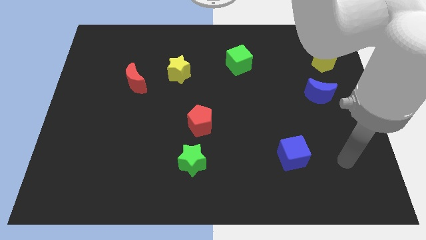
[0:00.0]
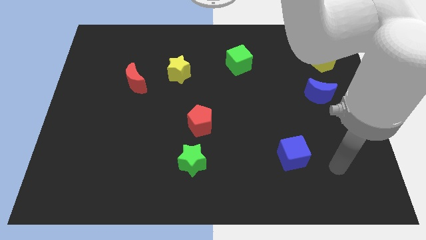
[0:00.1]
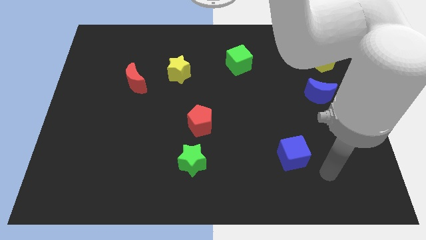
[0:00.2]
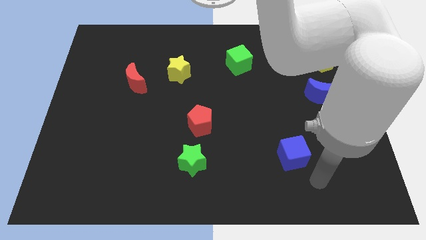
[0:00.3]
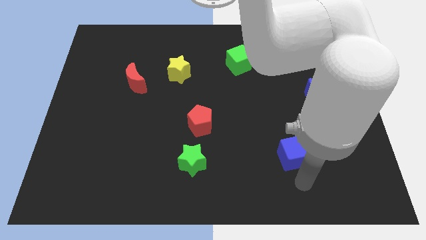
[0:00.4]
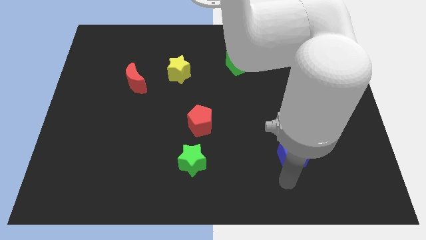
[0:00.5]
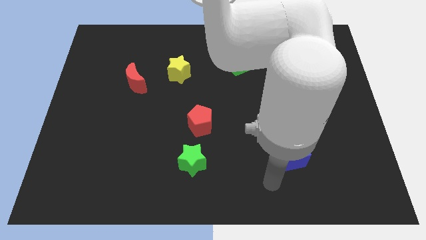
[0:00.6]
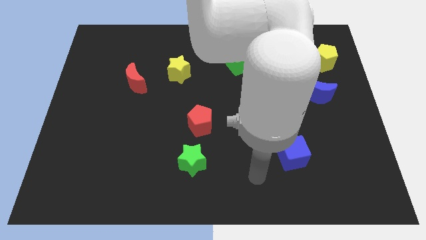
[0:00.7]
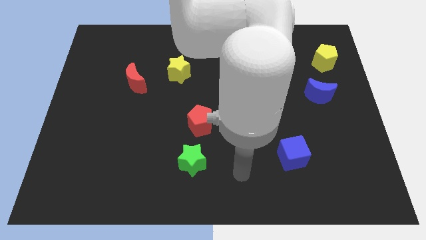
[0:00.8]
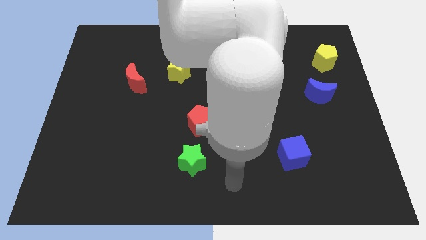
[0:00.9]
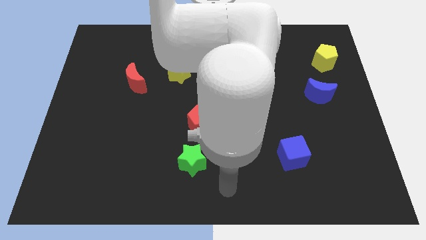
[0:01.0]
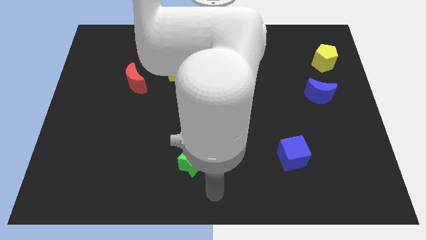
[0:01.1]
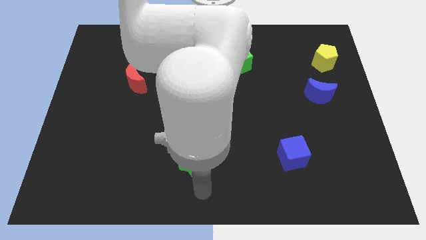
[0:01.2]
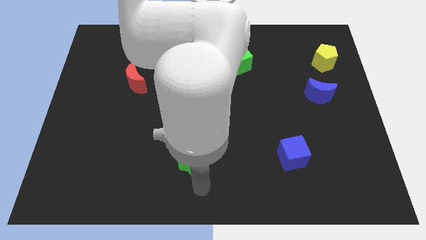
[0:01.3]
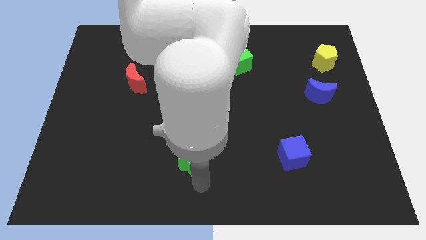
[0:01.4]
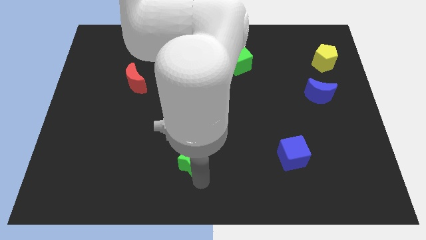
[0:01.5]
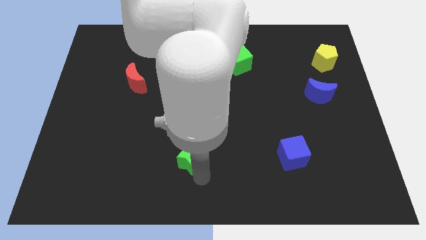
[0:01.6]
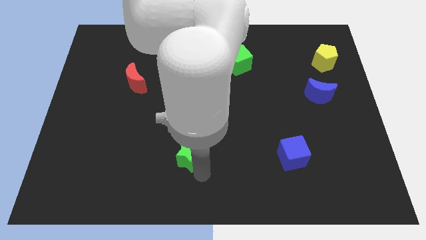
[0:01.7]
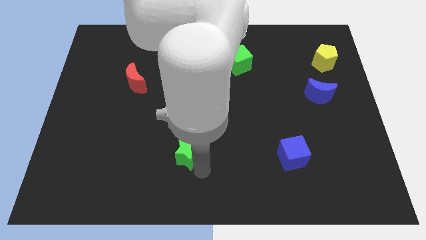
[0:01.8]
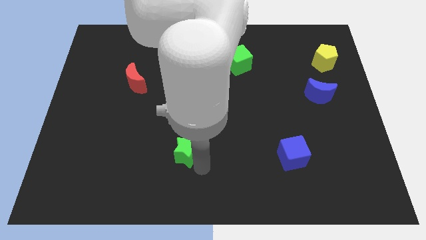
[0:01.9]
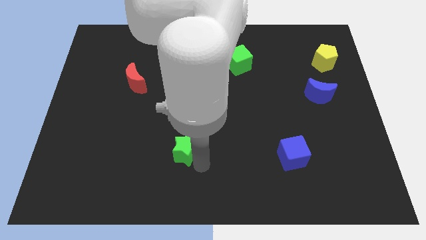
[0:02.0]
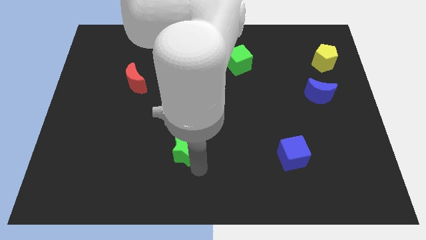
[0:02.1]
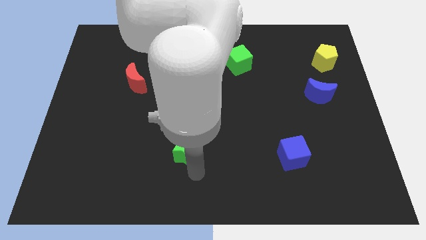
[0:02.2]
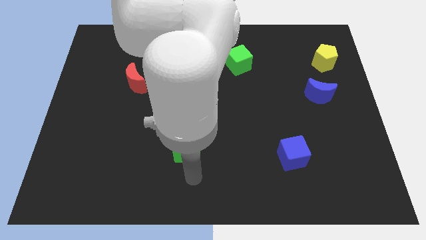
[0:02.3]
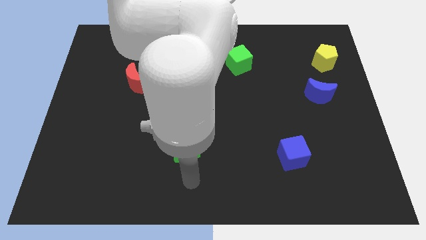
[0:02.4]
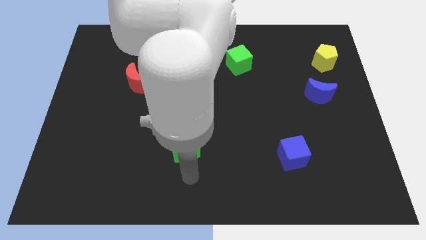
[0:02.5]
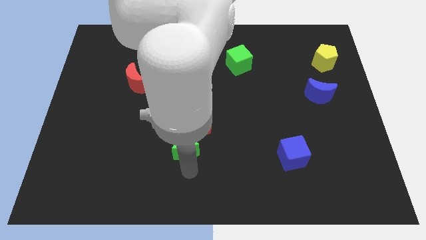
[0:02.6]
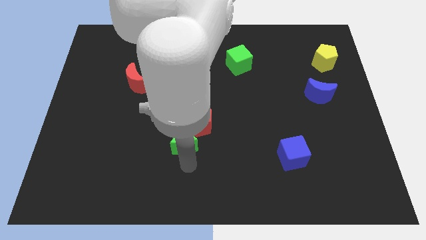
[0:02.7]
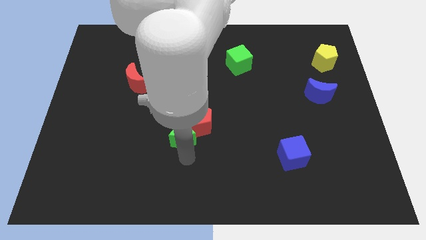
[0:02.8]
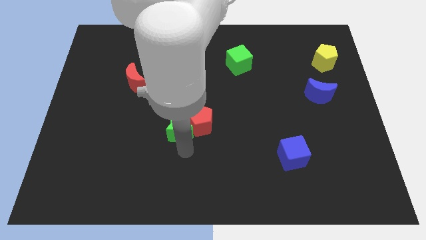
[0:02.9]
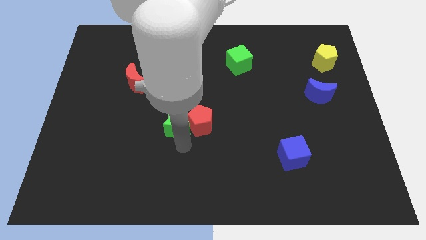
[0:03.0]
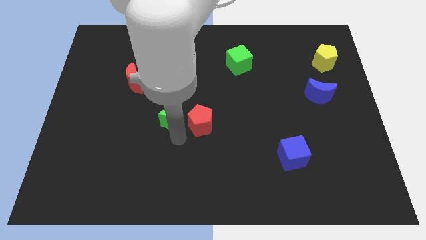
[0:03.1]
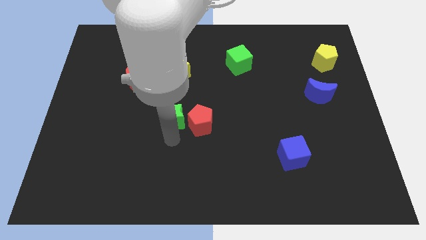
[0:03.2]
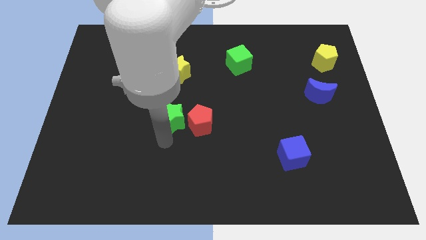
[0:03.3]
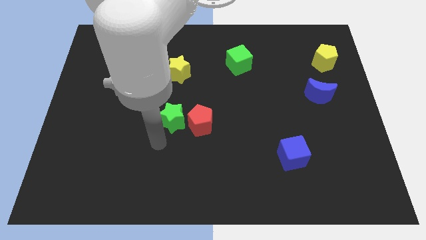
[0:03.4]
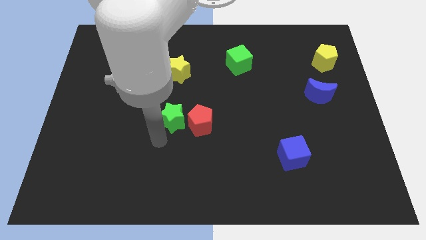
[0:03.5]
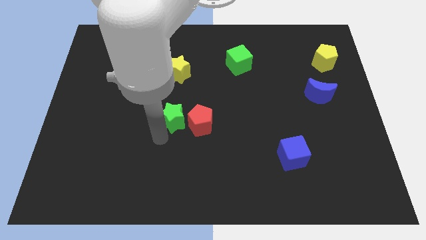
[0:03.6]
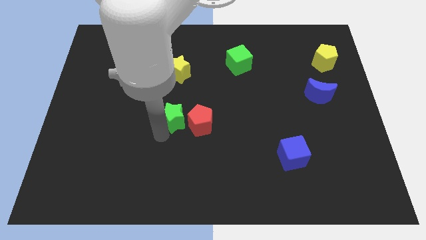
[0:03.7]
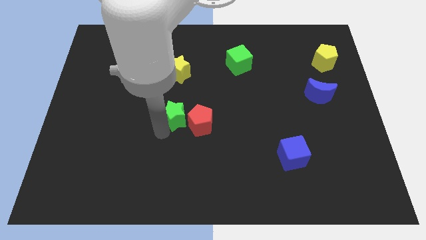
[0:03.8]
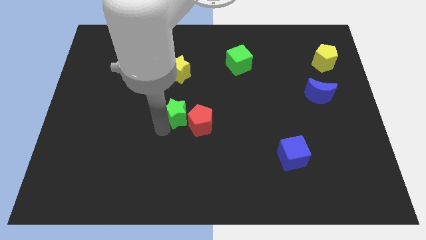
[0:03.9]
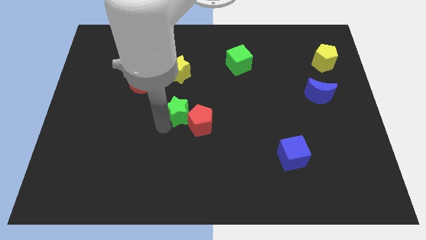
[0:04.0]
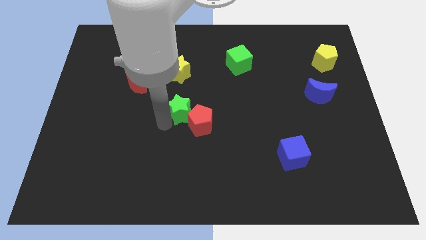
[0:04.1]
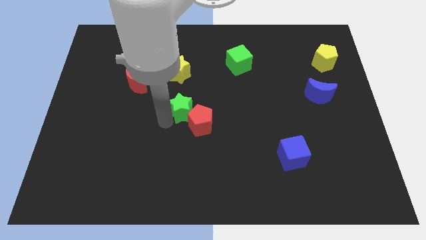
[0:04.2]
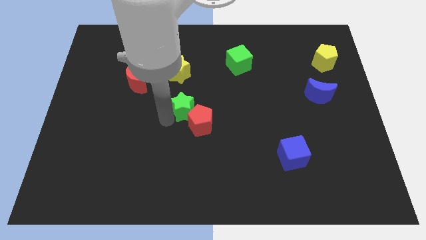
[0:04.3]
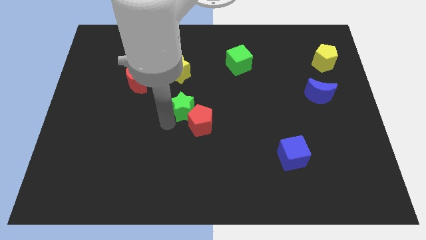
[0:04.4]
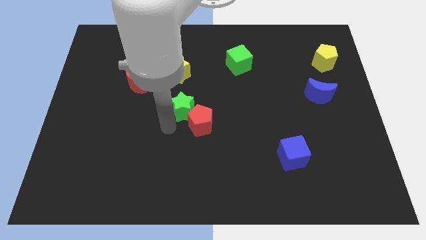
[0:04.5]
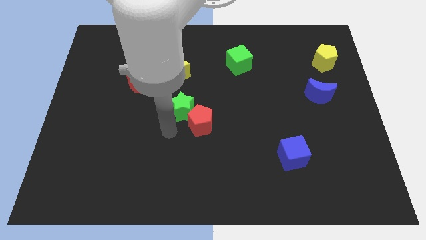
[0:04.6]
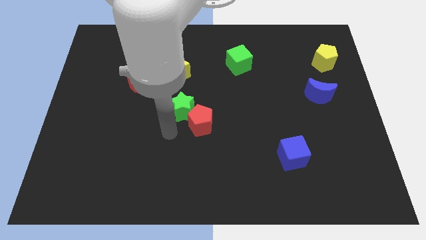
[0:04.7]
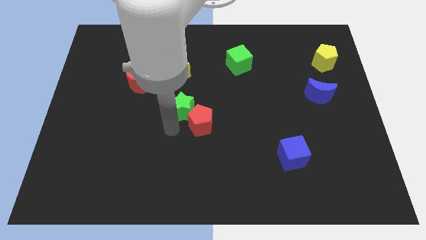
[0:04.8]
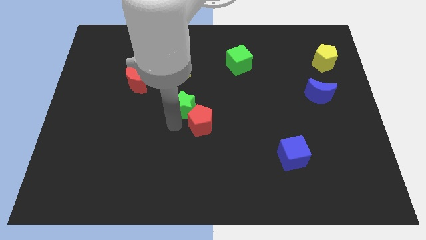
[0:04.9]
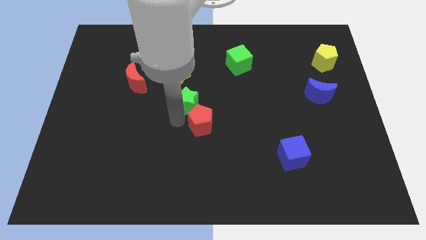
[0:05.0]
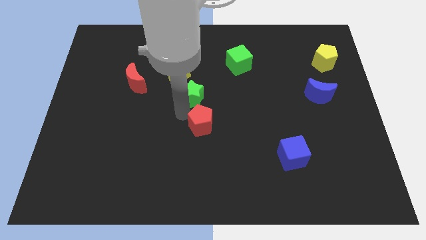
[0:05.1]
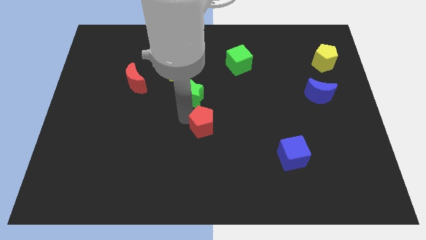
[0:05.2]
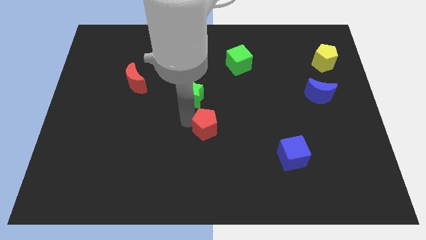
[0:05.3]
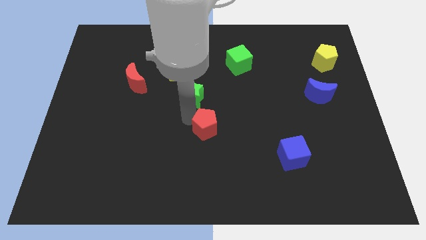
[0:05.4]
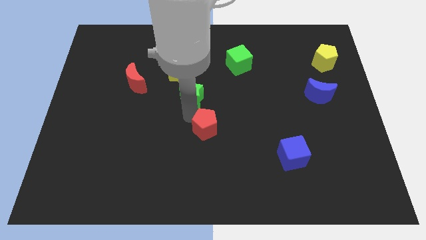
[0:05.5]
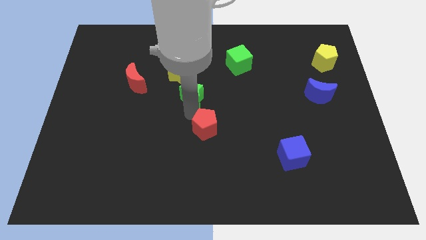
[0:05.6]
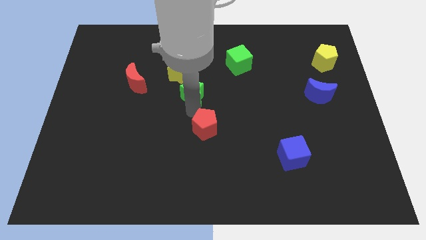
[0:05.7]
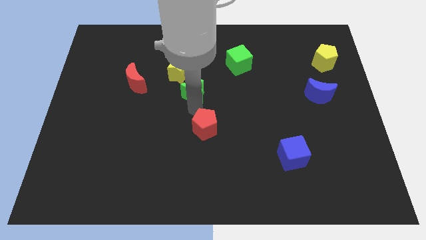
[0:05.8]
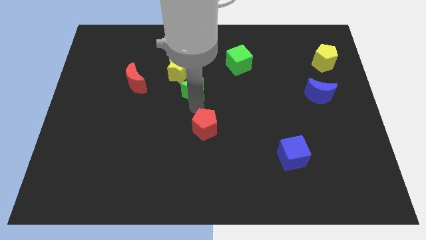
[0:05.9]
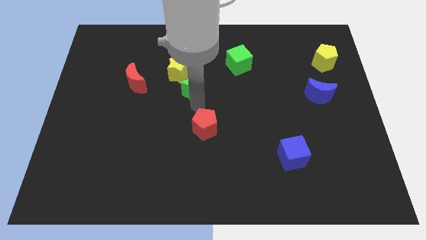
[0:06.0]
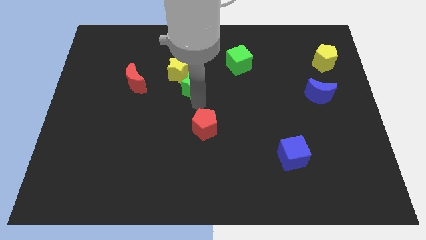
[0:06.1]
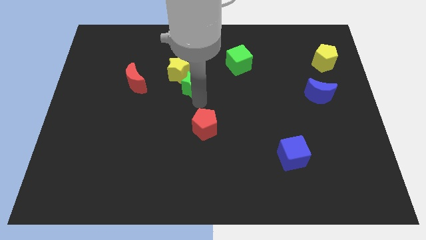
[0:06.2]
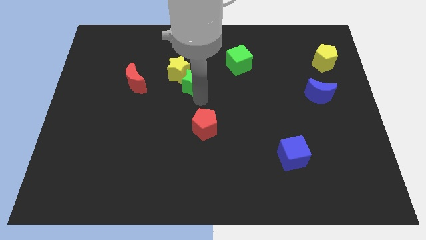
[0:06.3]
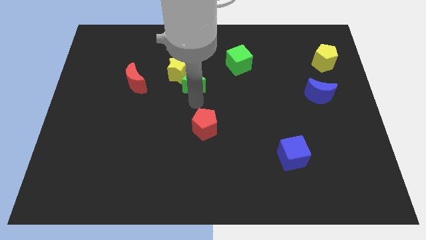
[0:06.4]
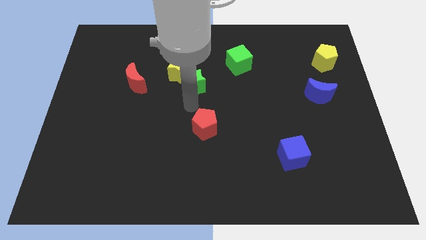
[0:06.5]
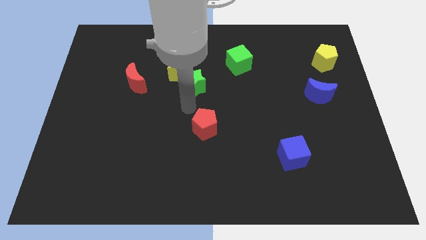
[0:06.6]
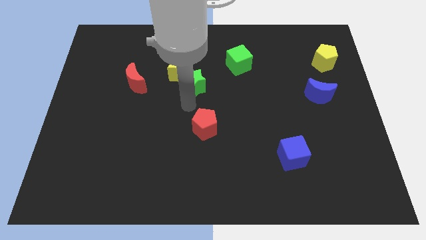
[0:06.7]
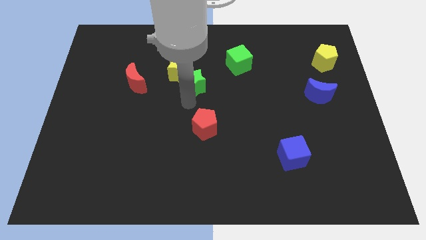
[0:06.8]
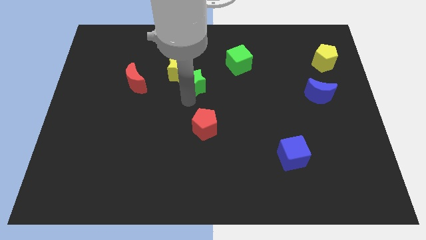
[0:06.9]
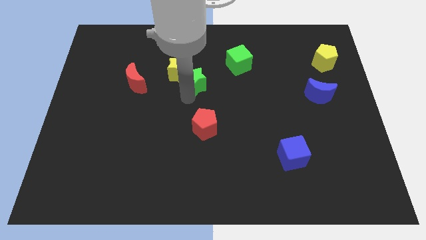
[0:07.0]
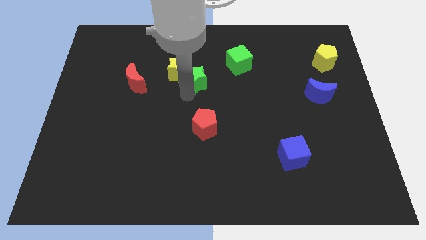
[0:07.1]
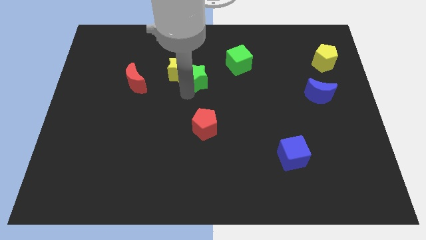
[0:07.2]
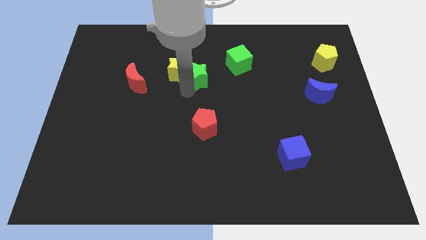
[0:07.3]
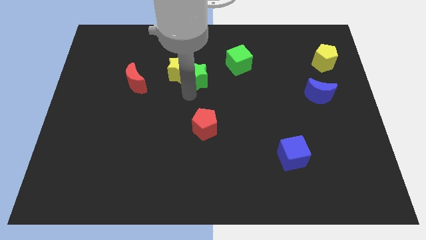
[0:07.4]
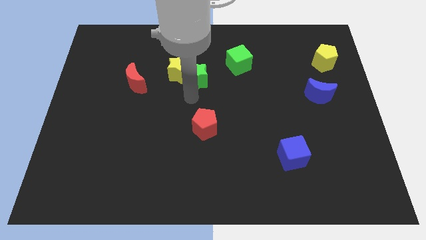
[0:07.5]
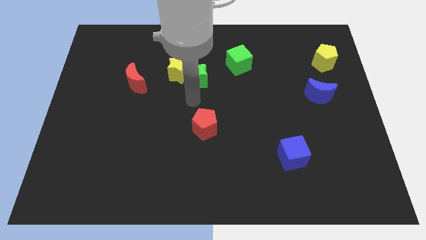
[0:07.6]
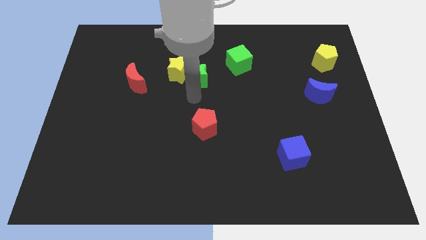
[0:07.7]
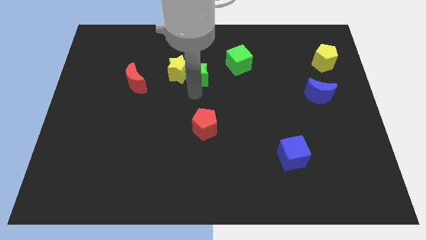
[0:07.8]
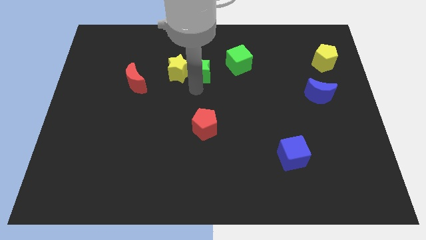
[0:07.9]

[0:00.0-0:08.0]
slide the green star diagonally up and to the right of the yellow star
